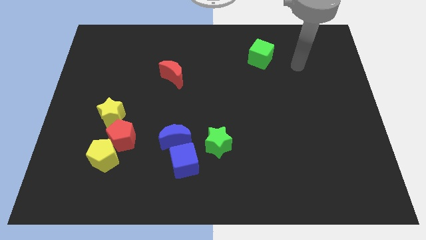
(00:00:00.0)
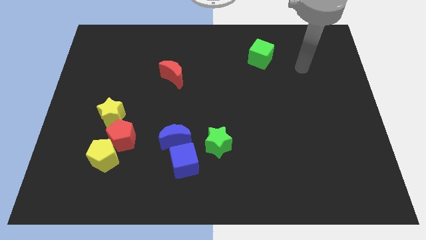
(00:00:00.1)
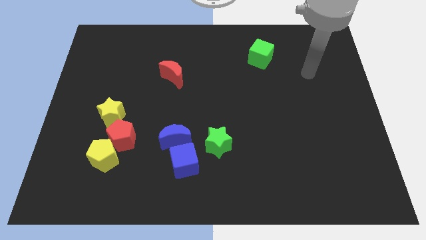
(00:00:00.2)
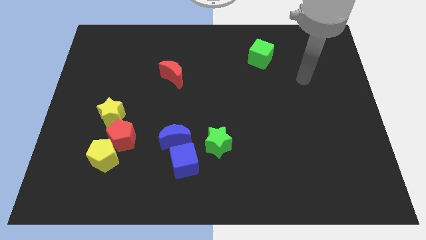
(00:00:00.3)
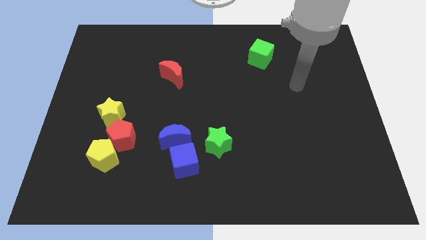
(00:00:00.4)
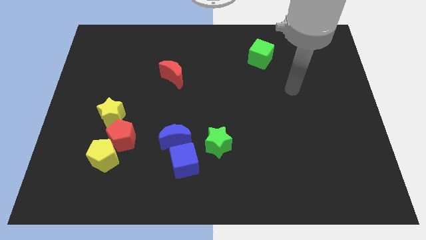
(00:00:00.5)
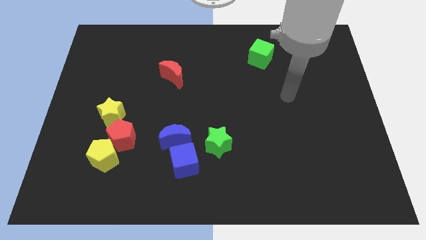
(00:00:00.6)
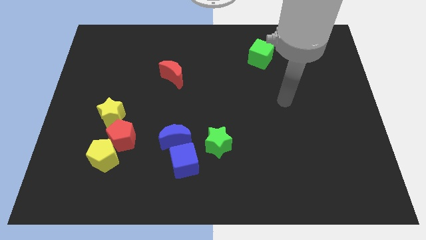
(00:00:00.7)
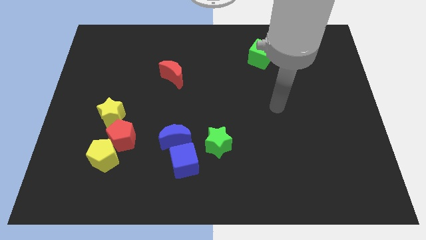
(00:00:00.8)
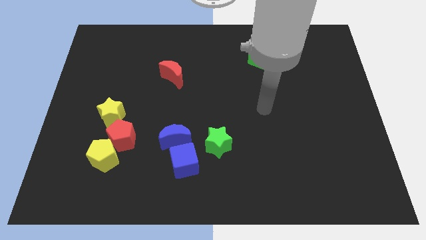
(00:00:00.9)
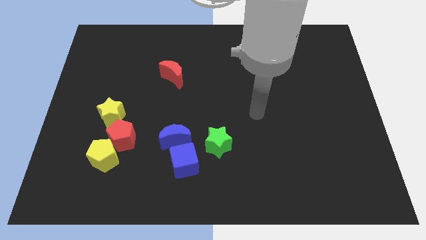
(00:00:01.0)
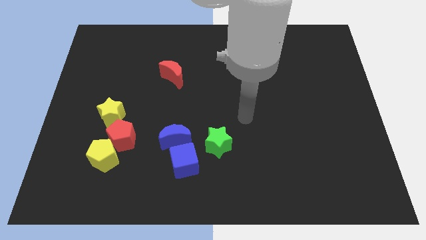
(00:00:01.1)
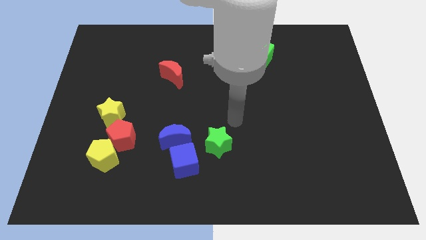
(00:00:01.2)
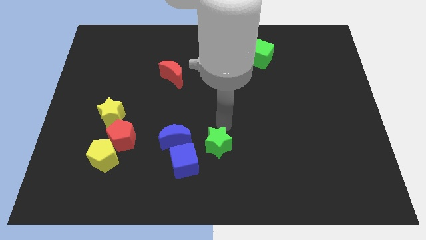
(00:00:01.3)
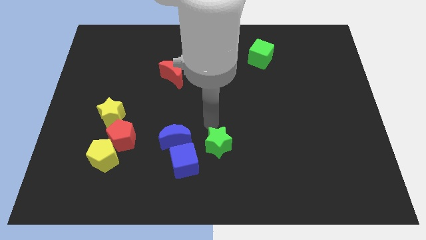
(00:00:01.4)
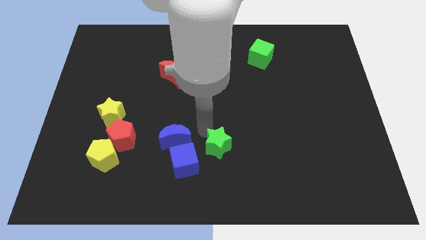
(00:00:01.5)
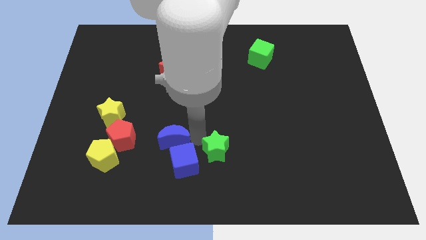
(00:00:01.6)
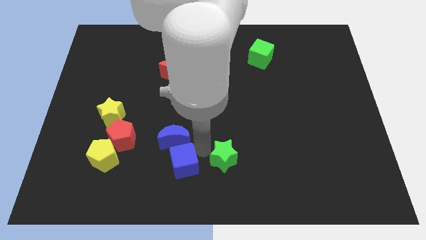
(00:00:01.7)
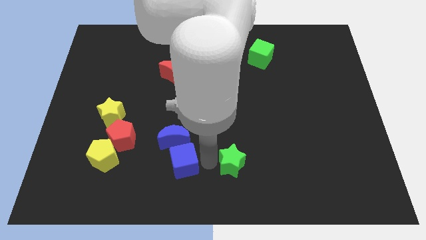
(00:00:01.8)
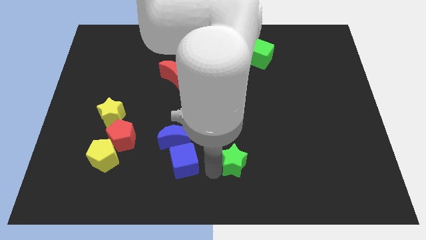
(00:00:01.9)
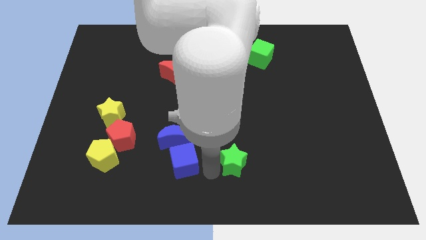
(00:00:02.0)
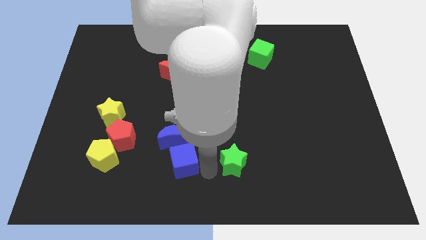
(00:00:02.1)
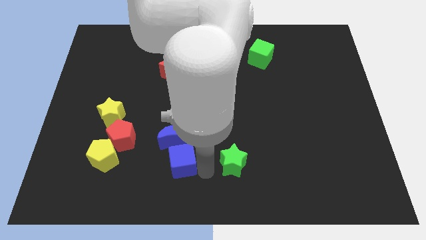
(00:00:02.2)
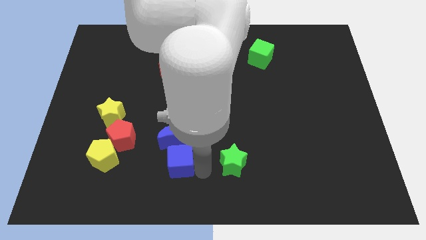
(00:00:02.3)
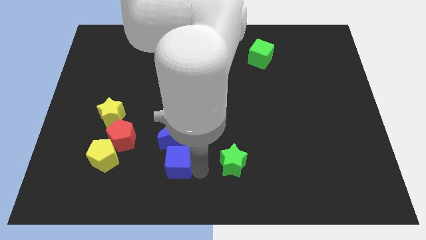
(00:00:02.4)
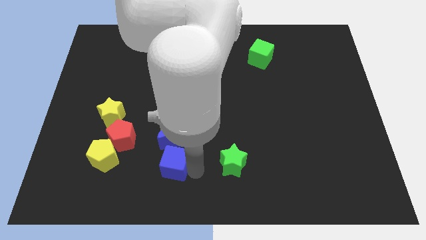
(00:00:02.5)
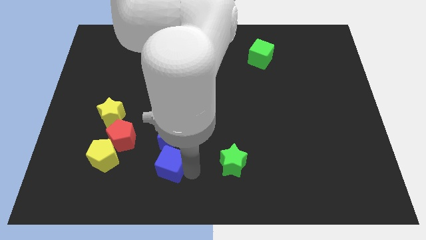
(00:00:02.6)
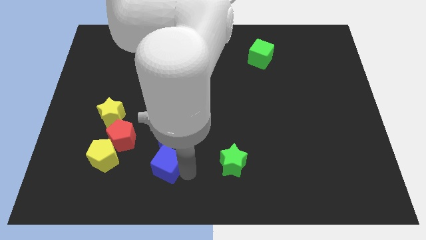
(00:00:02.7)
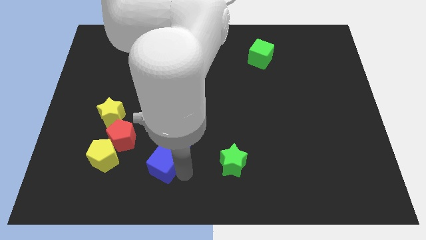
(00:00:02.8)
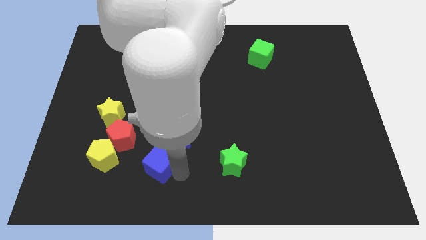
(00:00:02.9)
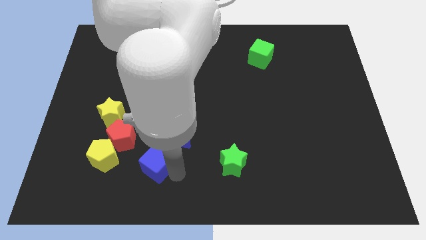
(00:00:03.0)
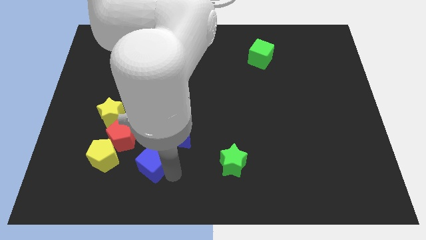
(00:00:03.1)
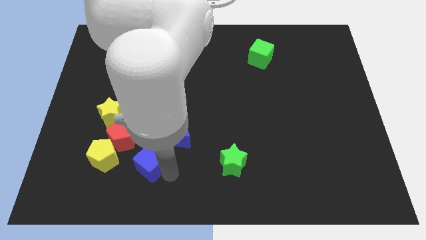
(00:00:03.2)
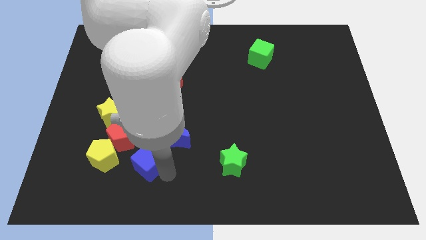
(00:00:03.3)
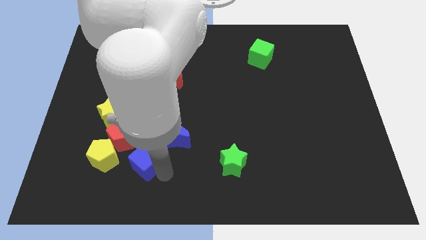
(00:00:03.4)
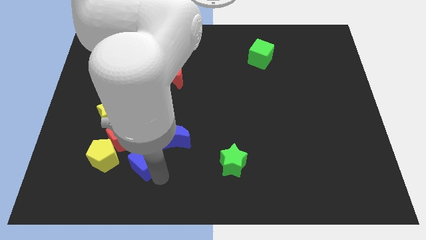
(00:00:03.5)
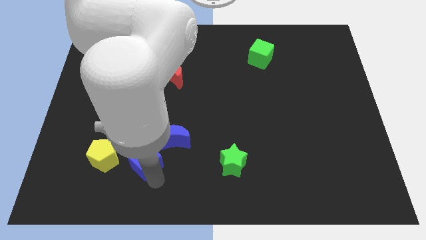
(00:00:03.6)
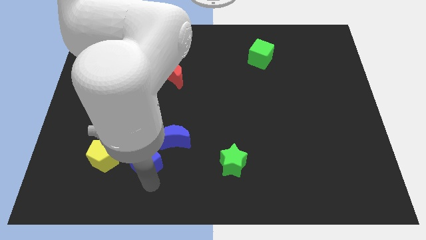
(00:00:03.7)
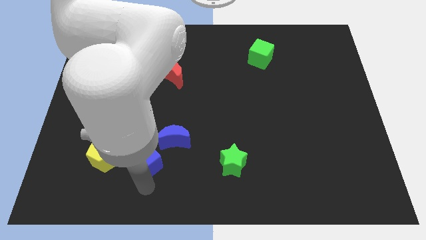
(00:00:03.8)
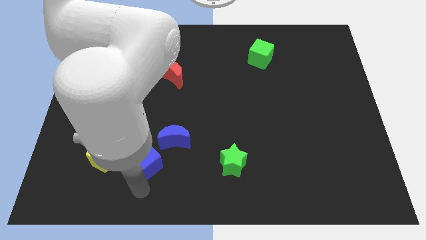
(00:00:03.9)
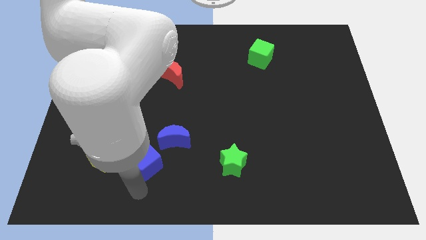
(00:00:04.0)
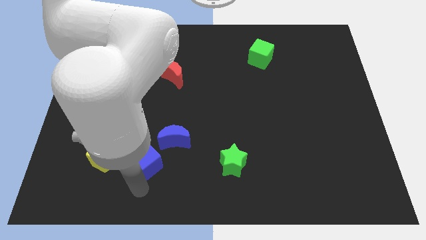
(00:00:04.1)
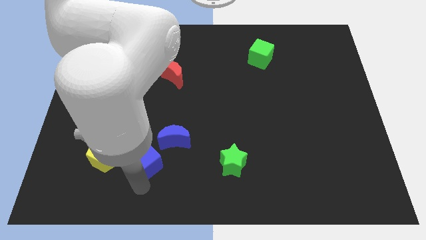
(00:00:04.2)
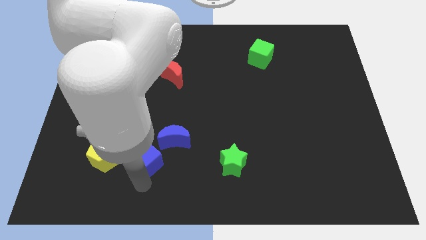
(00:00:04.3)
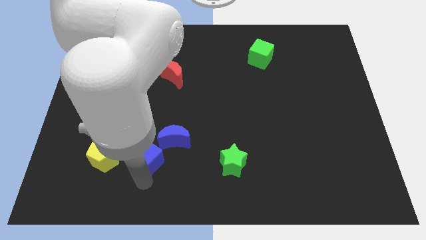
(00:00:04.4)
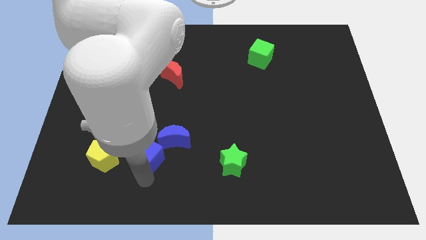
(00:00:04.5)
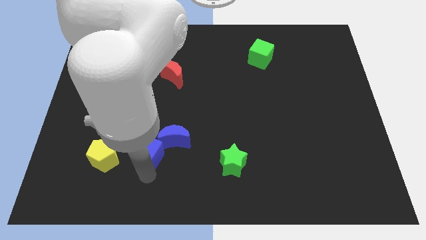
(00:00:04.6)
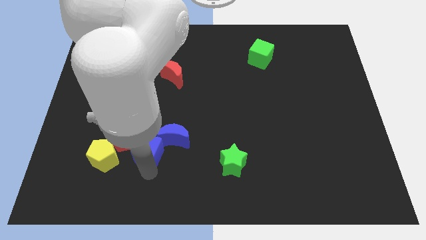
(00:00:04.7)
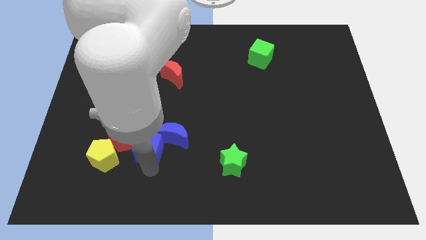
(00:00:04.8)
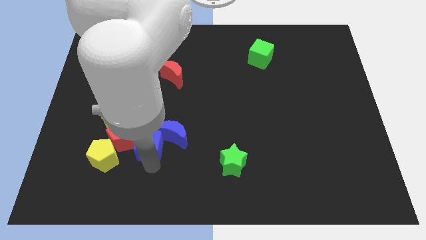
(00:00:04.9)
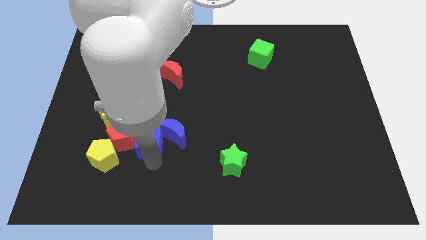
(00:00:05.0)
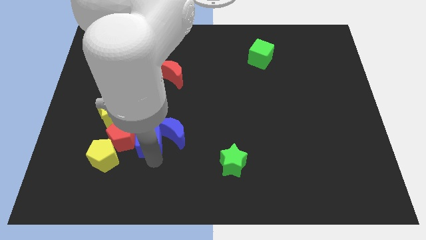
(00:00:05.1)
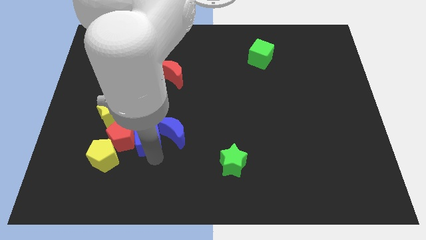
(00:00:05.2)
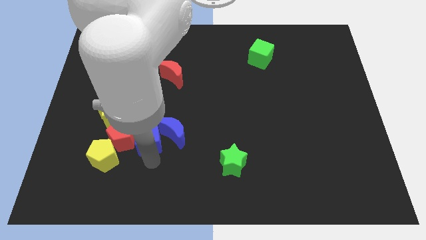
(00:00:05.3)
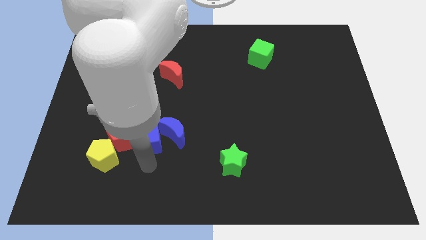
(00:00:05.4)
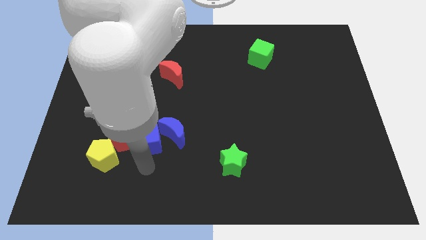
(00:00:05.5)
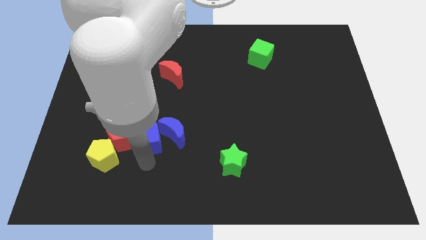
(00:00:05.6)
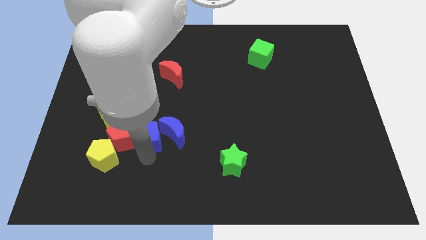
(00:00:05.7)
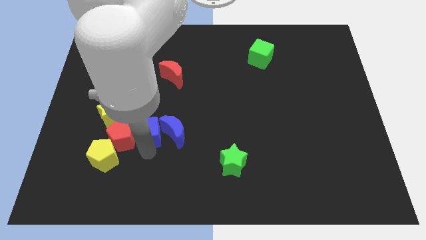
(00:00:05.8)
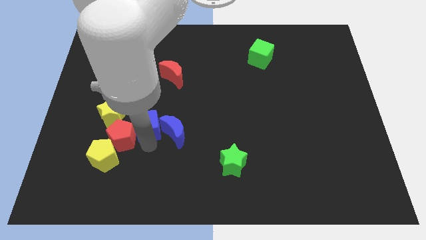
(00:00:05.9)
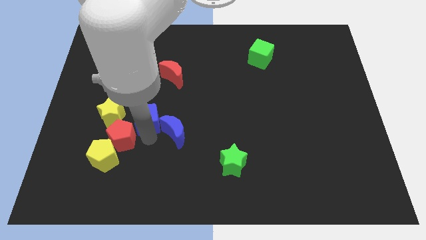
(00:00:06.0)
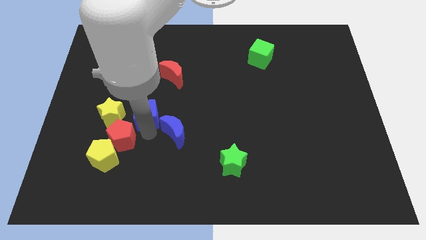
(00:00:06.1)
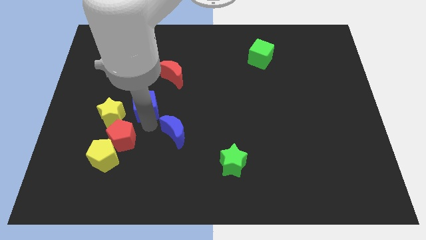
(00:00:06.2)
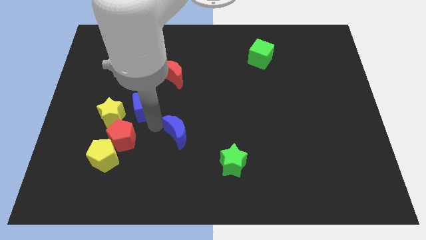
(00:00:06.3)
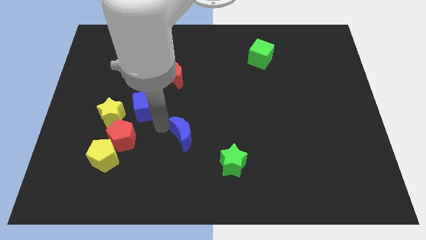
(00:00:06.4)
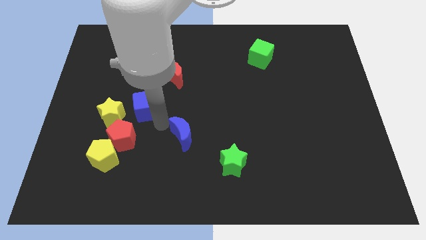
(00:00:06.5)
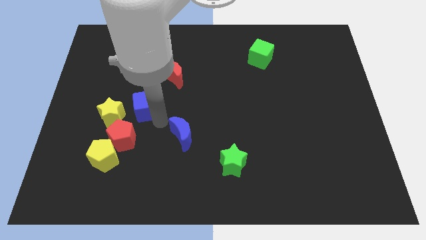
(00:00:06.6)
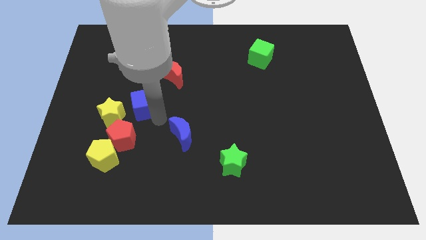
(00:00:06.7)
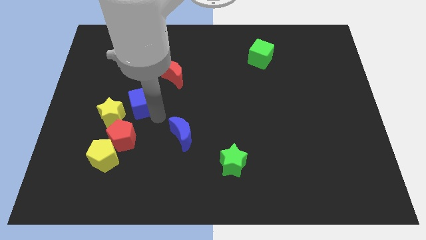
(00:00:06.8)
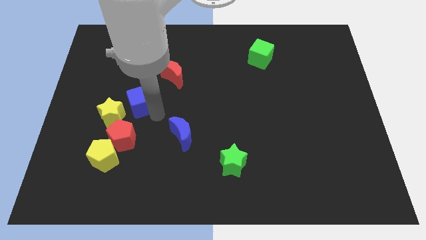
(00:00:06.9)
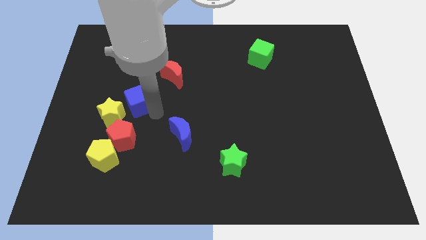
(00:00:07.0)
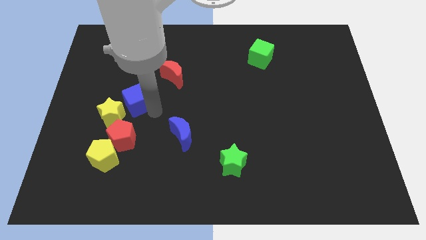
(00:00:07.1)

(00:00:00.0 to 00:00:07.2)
move the blue cube upwards and then to the left

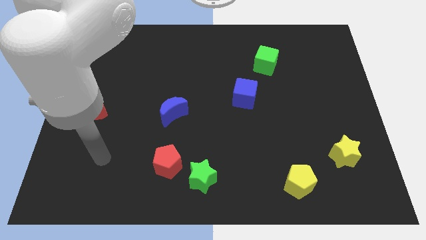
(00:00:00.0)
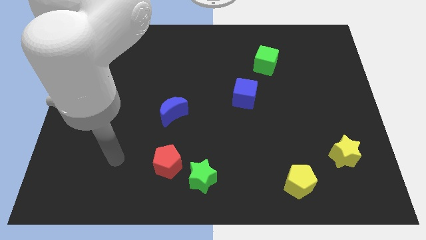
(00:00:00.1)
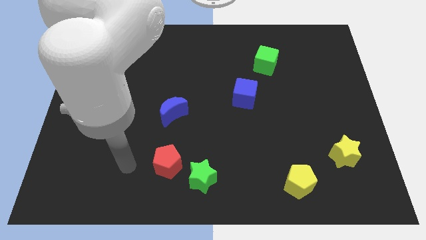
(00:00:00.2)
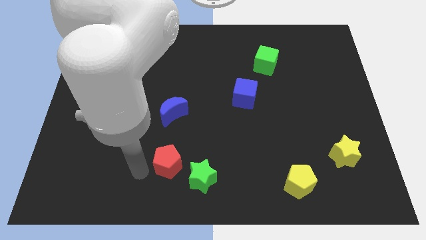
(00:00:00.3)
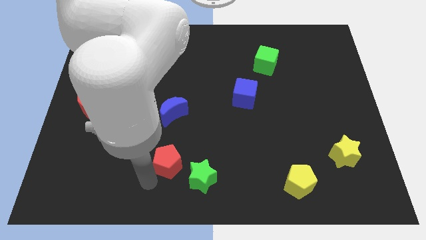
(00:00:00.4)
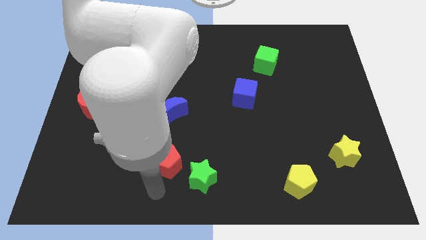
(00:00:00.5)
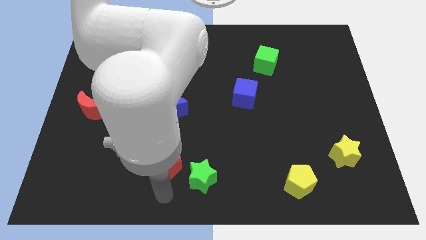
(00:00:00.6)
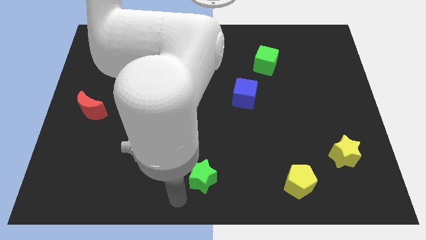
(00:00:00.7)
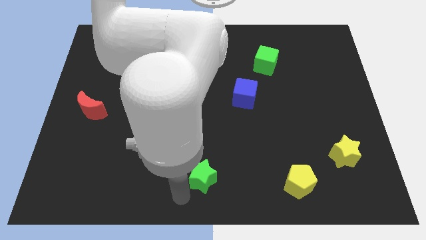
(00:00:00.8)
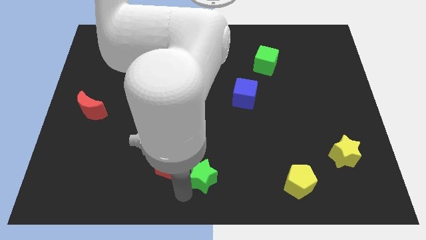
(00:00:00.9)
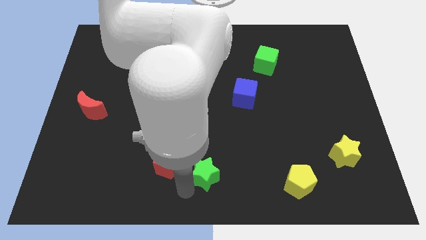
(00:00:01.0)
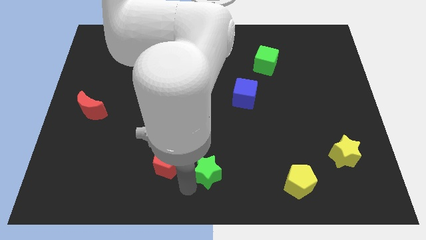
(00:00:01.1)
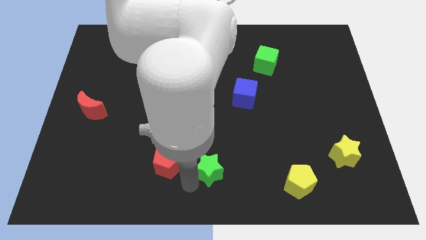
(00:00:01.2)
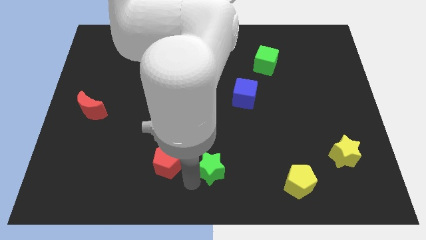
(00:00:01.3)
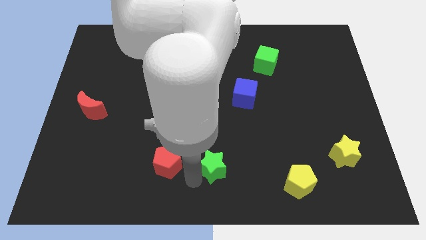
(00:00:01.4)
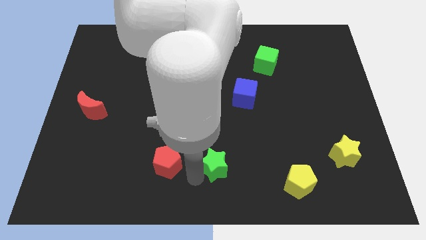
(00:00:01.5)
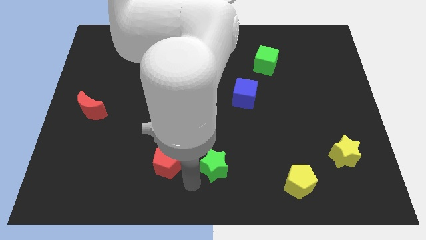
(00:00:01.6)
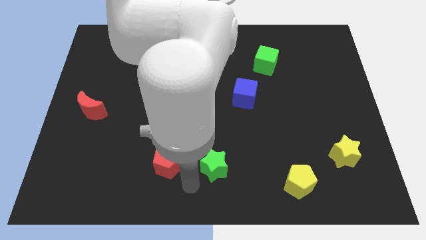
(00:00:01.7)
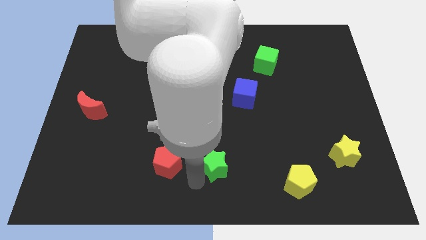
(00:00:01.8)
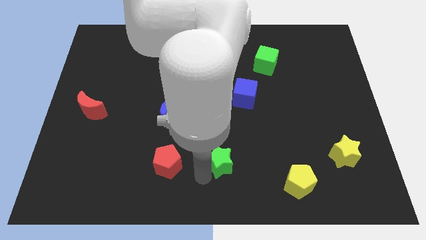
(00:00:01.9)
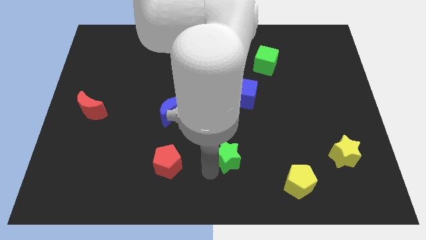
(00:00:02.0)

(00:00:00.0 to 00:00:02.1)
slightly push the green star diagonally upwards and right
